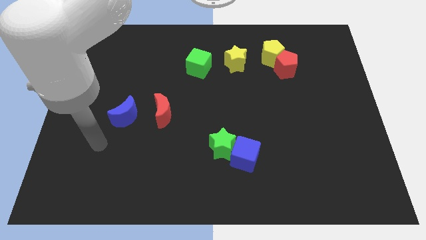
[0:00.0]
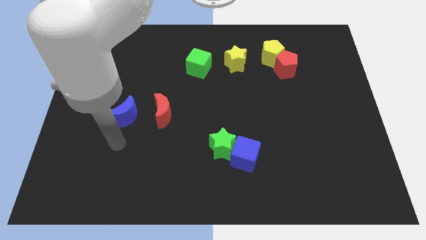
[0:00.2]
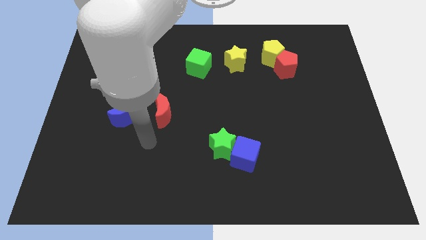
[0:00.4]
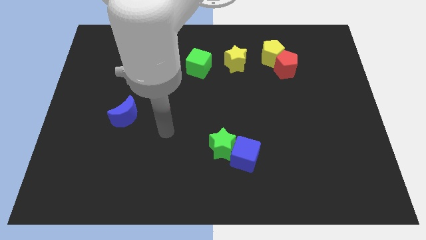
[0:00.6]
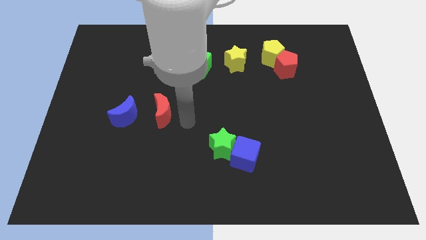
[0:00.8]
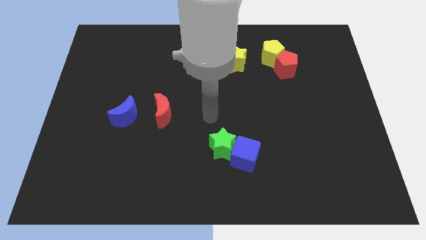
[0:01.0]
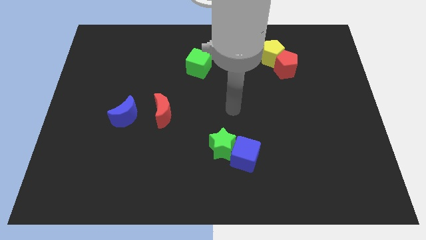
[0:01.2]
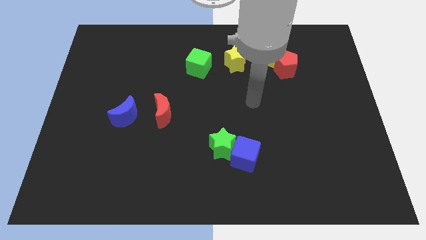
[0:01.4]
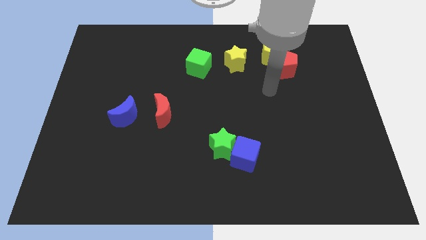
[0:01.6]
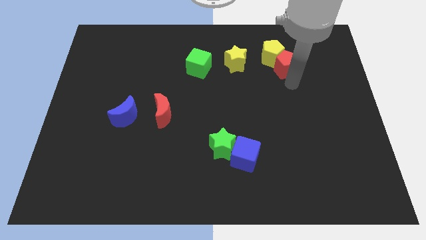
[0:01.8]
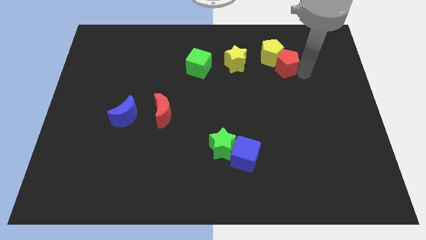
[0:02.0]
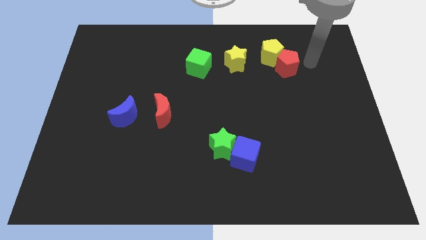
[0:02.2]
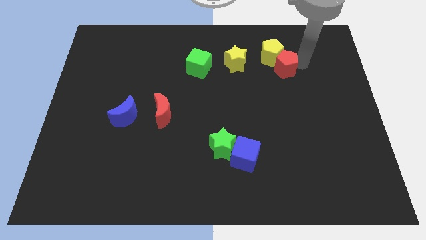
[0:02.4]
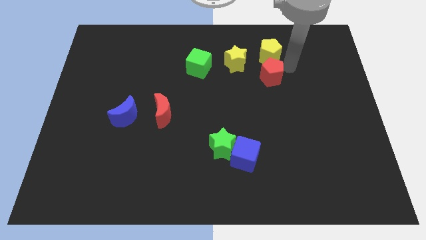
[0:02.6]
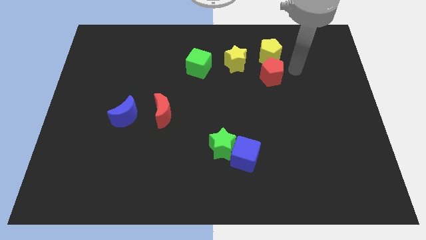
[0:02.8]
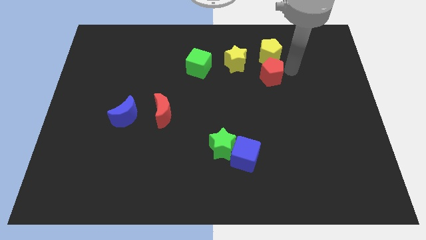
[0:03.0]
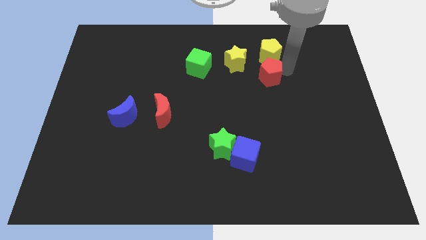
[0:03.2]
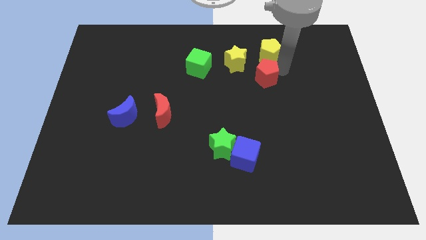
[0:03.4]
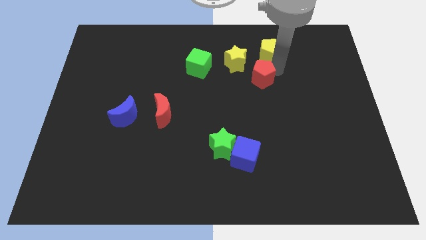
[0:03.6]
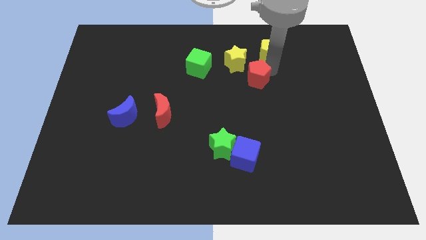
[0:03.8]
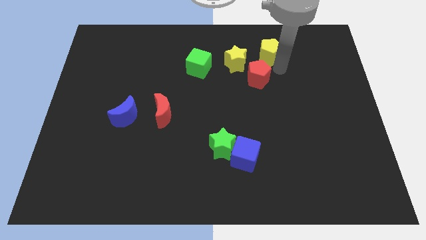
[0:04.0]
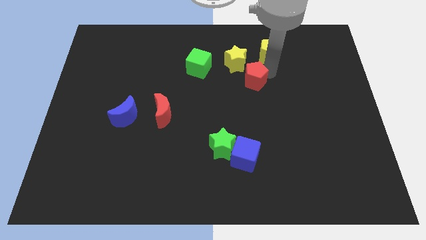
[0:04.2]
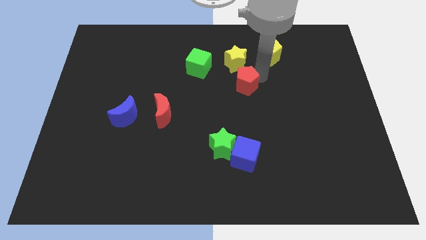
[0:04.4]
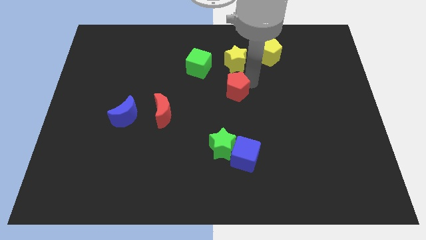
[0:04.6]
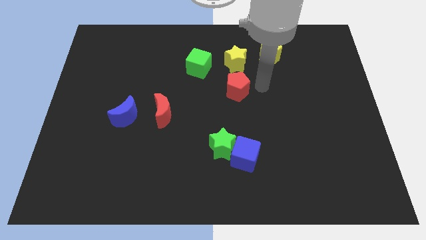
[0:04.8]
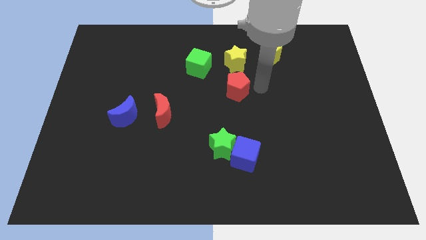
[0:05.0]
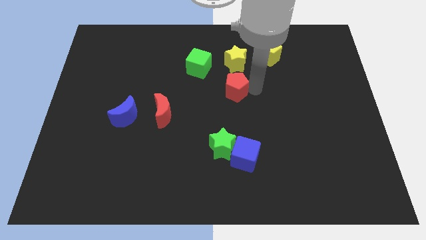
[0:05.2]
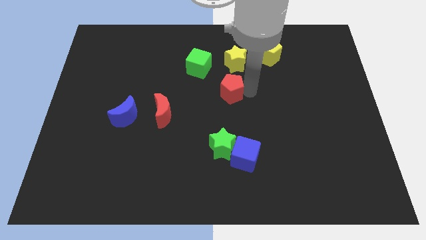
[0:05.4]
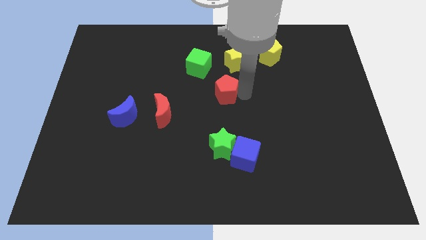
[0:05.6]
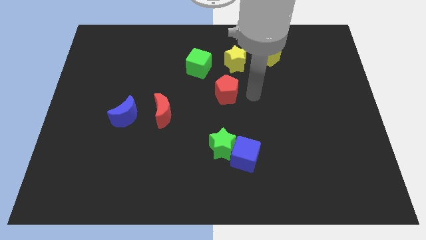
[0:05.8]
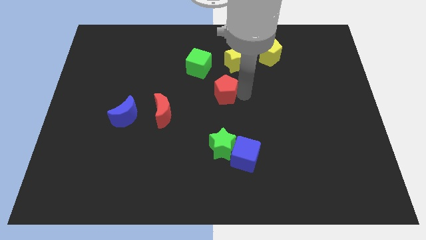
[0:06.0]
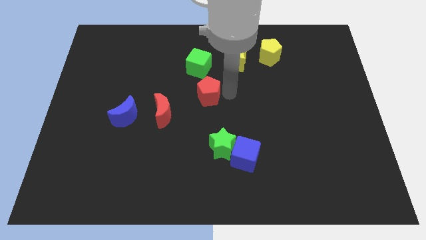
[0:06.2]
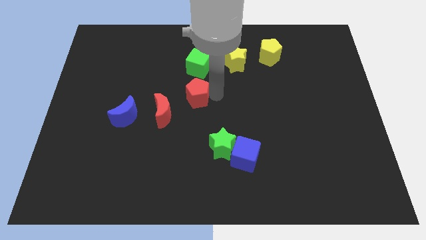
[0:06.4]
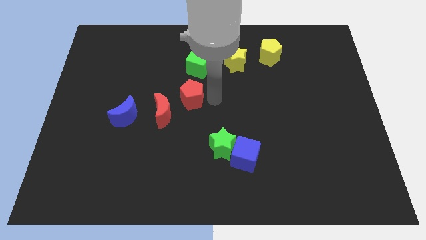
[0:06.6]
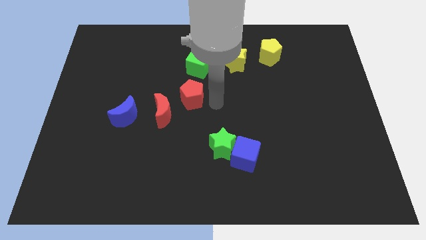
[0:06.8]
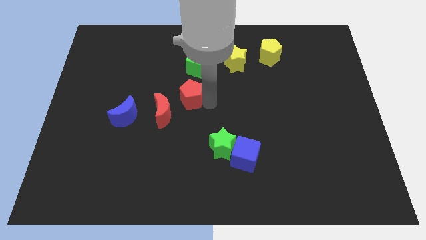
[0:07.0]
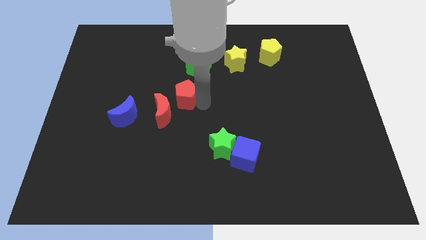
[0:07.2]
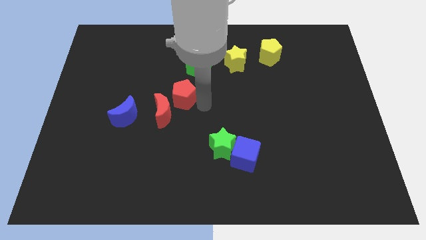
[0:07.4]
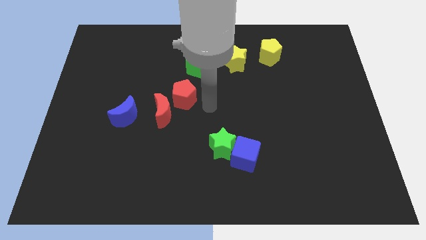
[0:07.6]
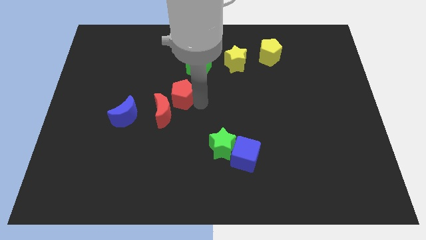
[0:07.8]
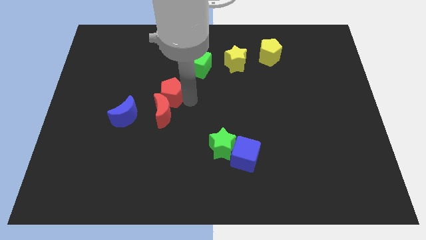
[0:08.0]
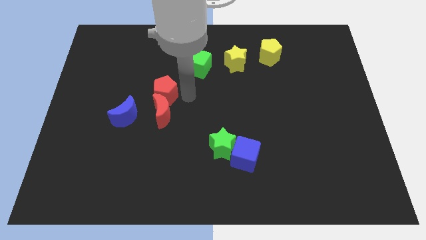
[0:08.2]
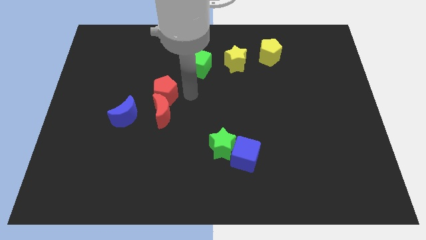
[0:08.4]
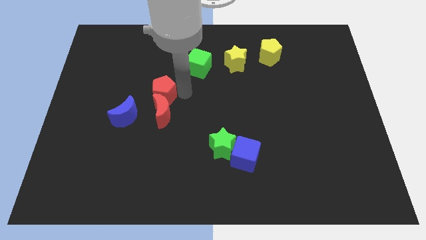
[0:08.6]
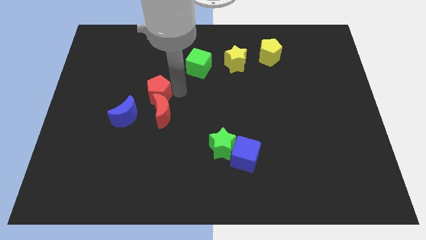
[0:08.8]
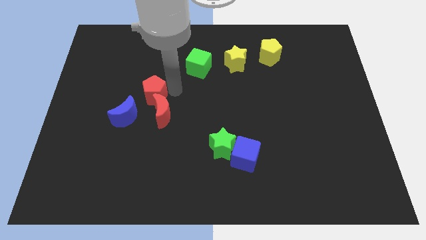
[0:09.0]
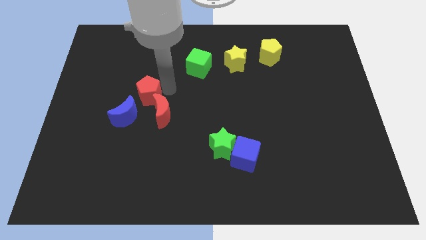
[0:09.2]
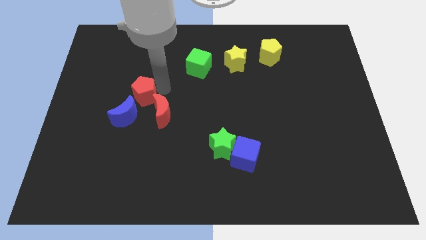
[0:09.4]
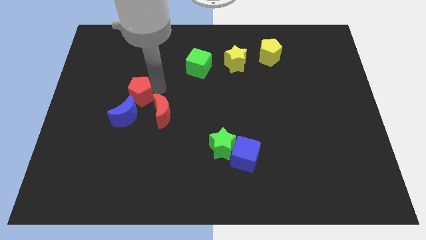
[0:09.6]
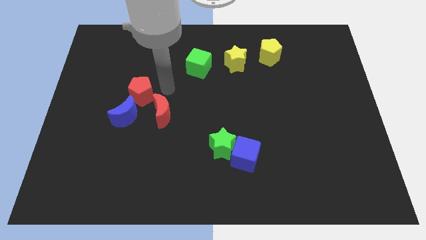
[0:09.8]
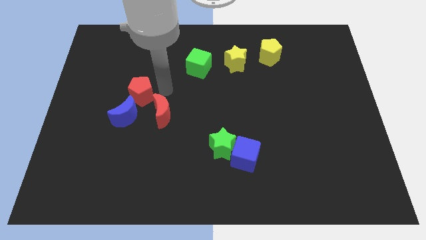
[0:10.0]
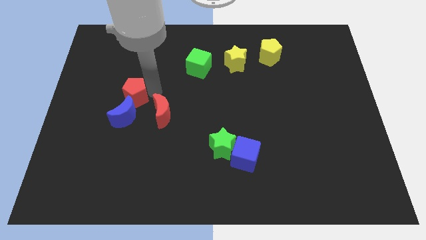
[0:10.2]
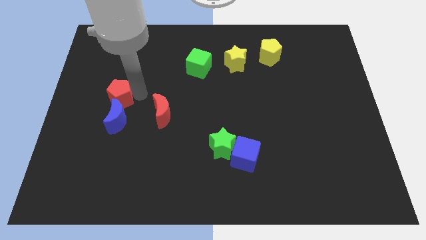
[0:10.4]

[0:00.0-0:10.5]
slide the red pentagon to the top left side of the blue moon

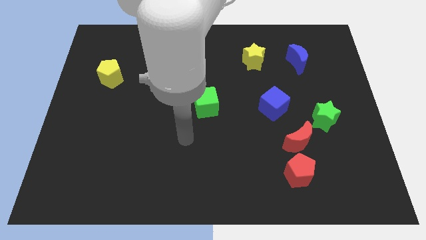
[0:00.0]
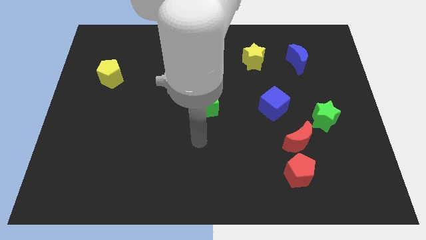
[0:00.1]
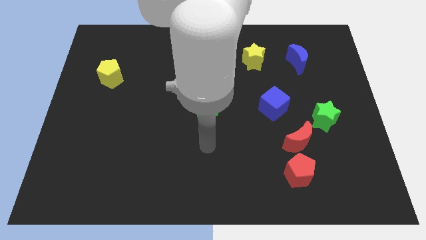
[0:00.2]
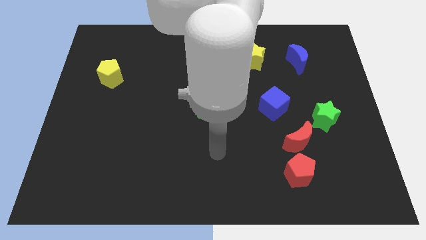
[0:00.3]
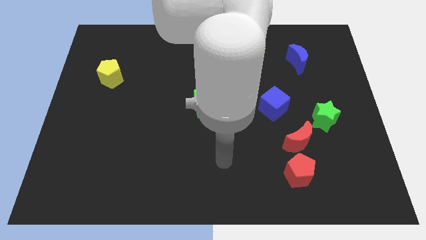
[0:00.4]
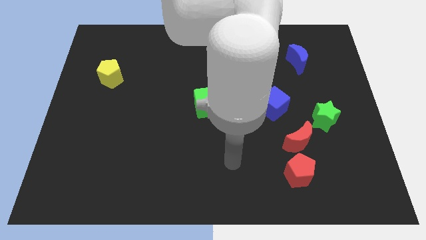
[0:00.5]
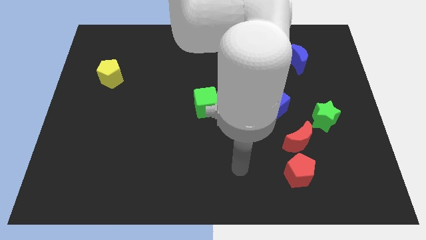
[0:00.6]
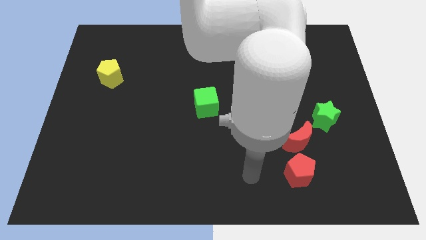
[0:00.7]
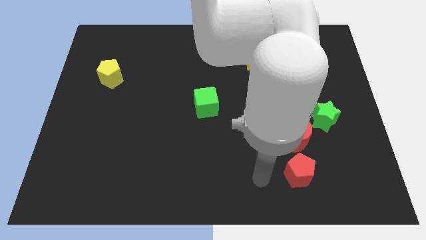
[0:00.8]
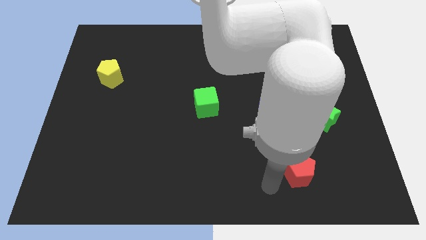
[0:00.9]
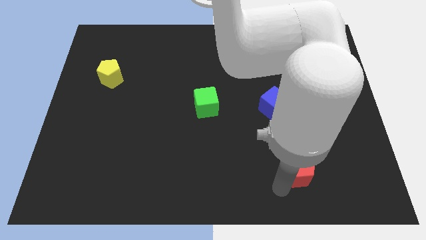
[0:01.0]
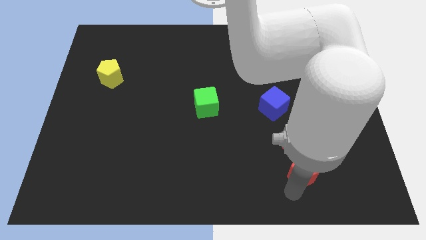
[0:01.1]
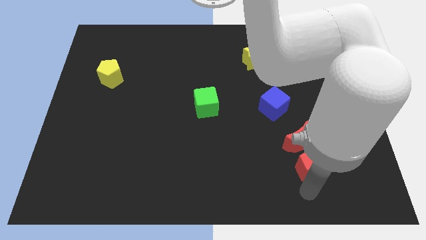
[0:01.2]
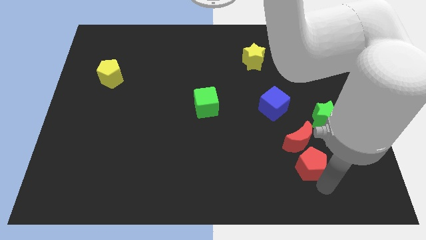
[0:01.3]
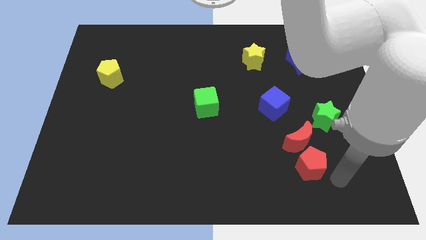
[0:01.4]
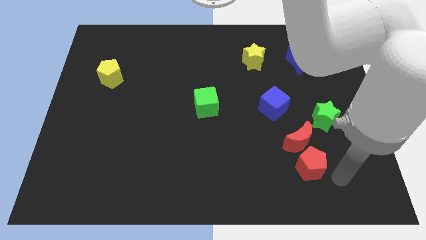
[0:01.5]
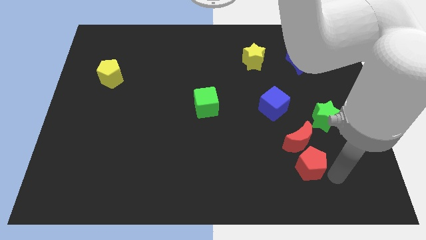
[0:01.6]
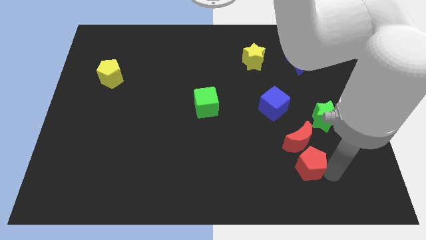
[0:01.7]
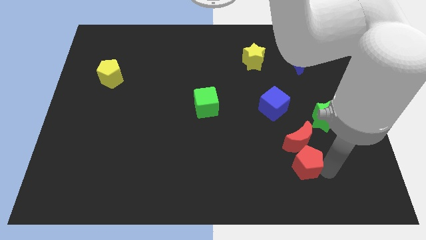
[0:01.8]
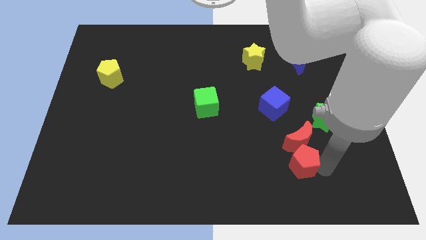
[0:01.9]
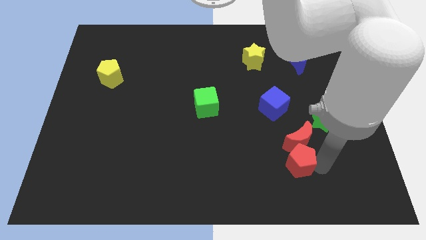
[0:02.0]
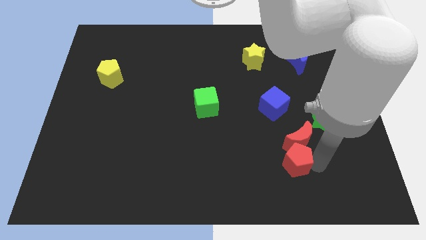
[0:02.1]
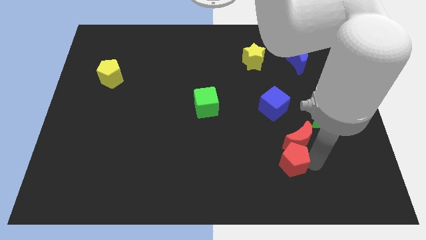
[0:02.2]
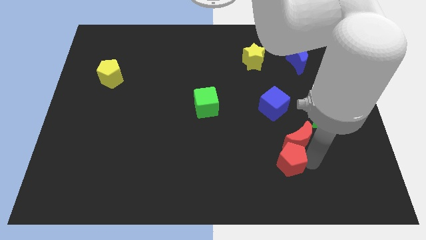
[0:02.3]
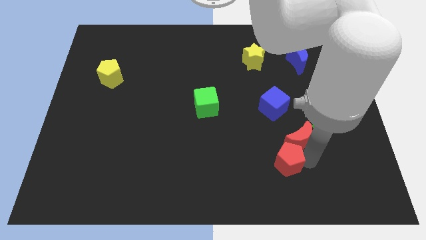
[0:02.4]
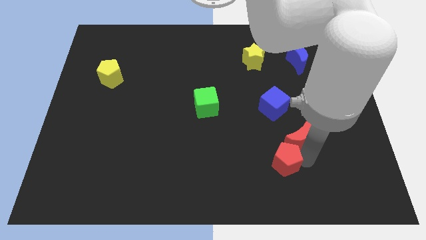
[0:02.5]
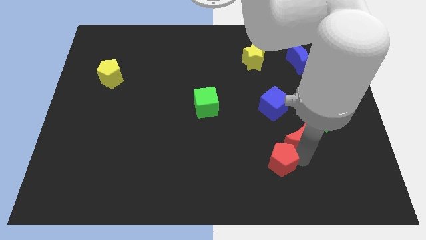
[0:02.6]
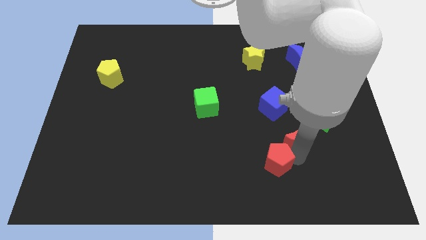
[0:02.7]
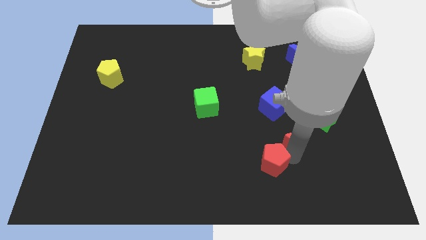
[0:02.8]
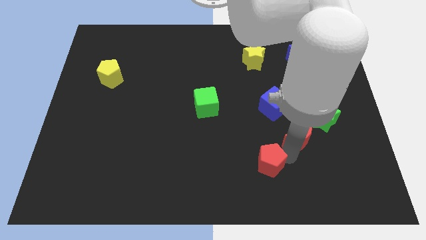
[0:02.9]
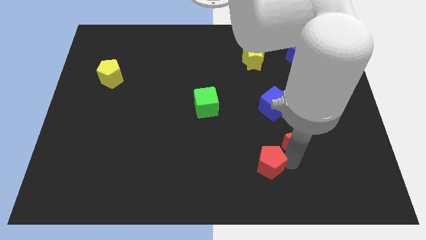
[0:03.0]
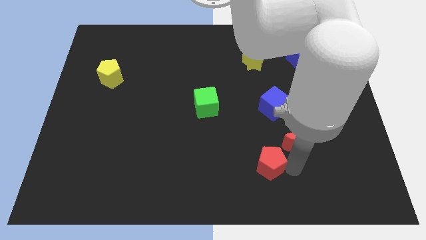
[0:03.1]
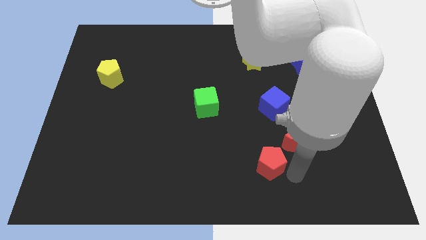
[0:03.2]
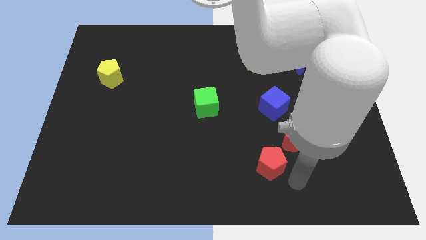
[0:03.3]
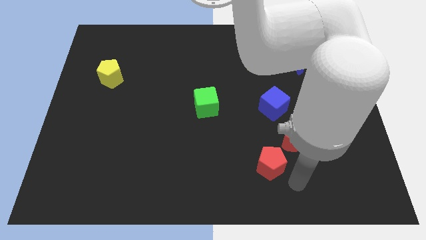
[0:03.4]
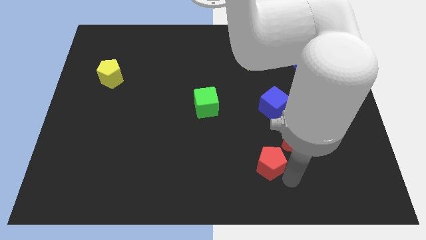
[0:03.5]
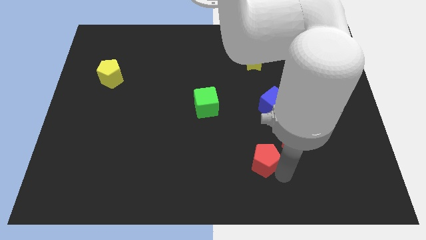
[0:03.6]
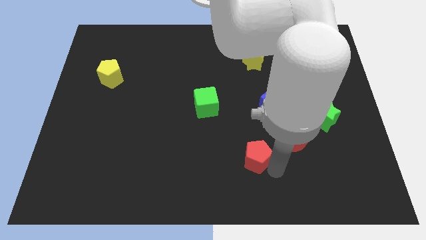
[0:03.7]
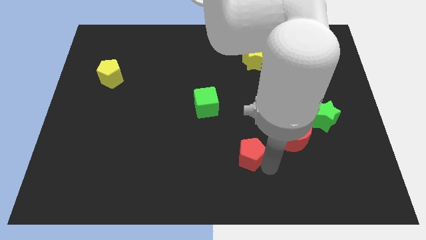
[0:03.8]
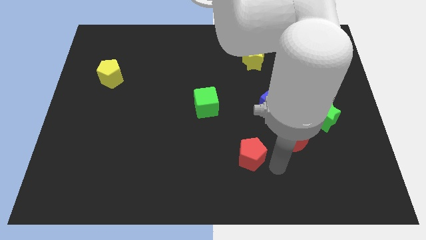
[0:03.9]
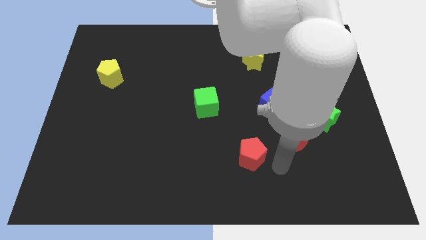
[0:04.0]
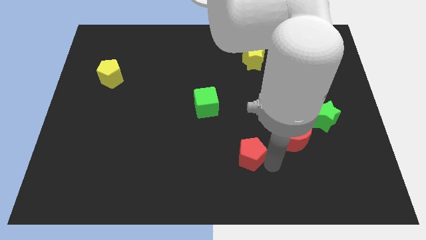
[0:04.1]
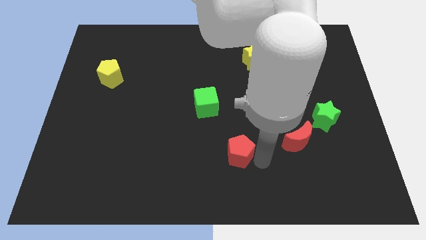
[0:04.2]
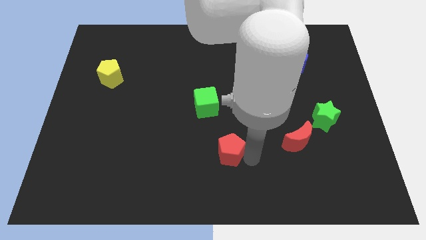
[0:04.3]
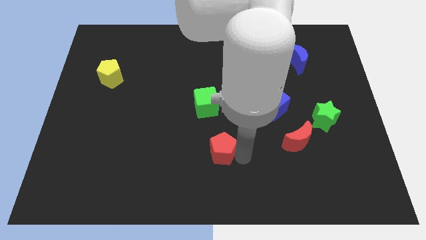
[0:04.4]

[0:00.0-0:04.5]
slide the red pentagon below the green cube
